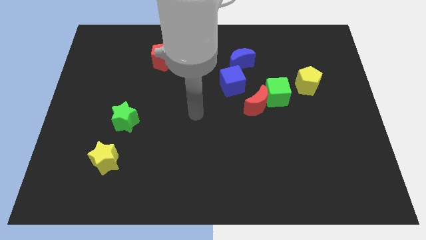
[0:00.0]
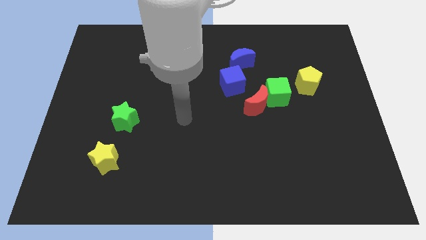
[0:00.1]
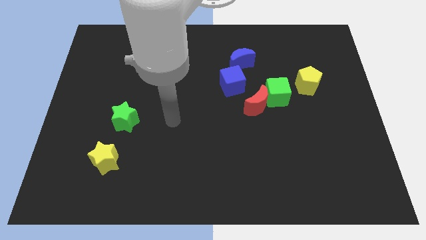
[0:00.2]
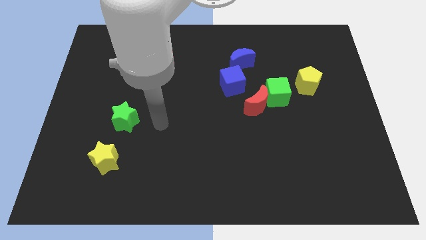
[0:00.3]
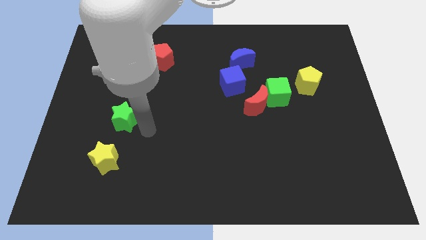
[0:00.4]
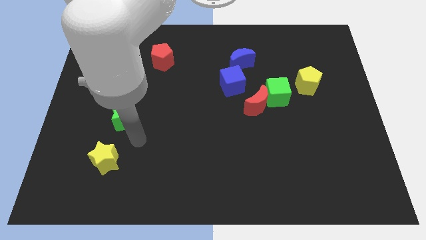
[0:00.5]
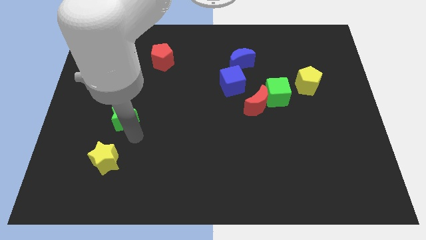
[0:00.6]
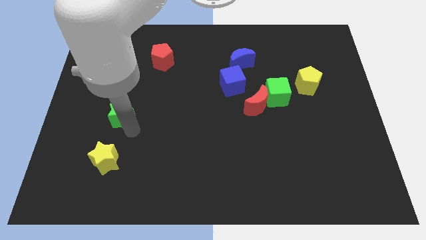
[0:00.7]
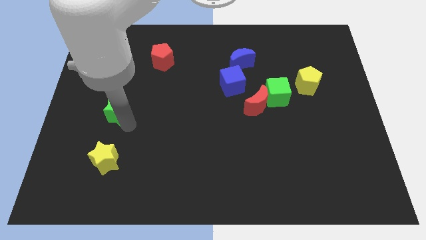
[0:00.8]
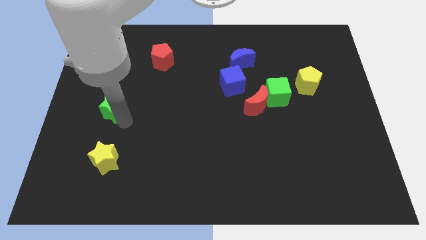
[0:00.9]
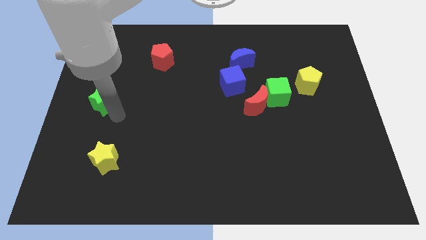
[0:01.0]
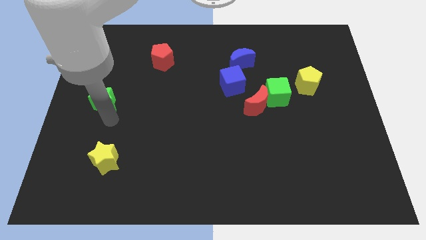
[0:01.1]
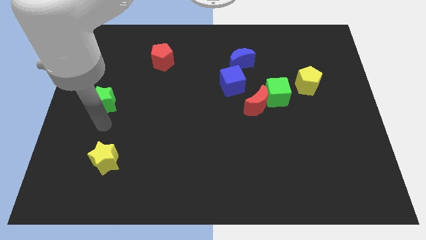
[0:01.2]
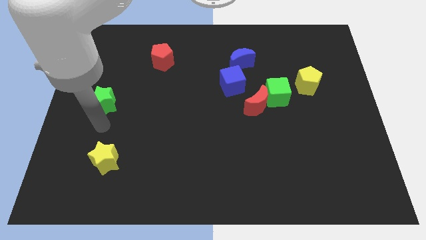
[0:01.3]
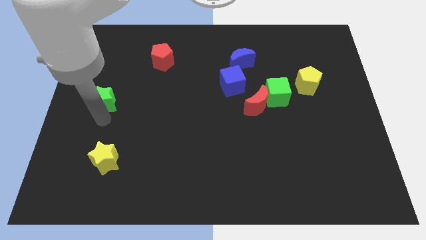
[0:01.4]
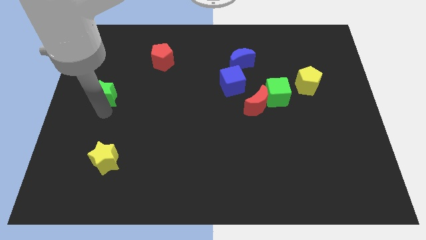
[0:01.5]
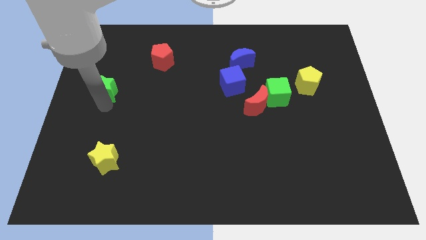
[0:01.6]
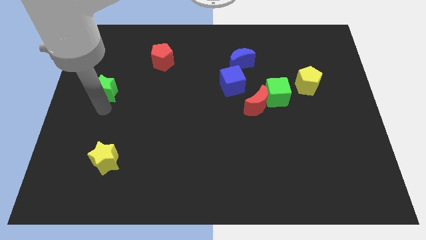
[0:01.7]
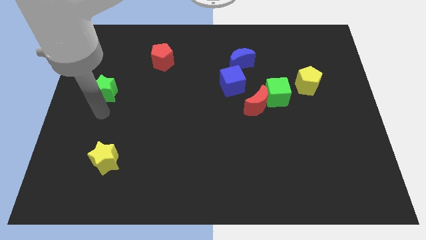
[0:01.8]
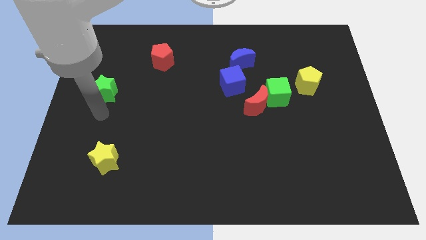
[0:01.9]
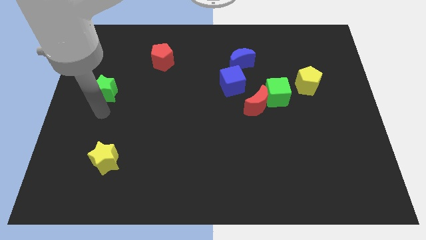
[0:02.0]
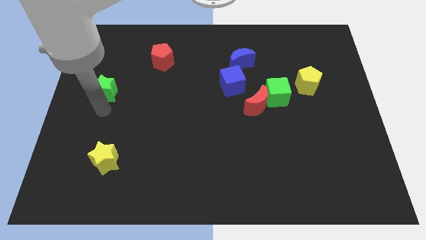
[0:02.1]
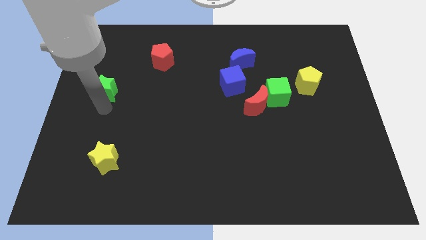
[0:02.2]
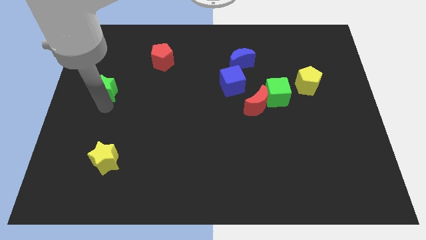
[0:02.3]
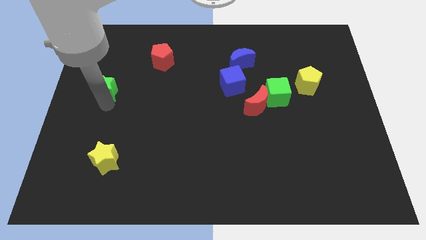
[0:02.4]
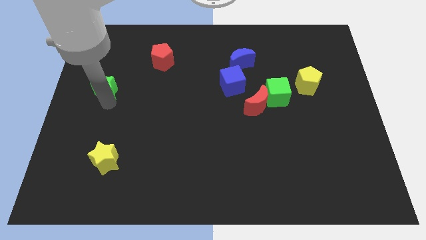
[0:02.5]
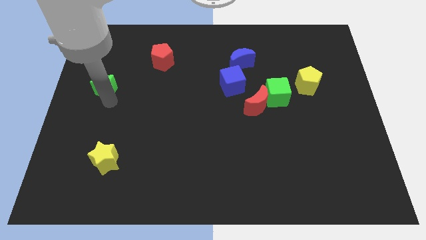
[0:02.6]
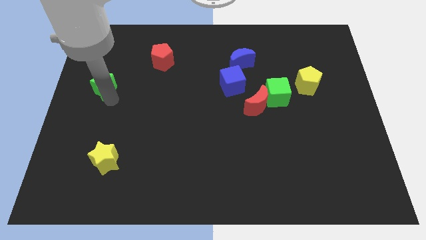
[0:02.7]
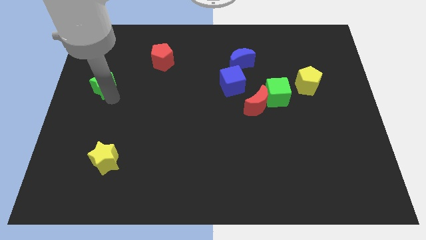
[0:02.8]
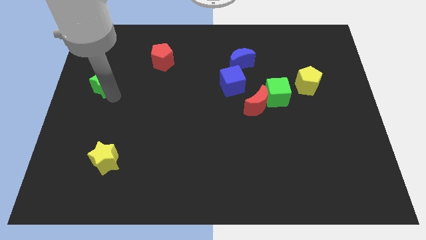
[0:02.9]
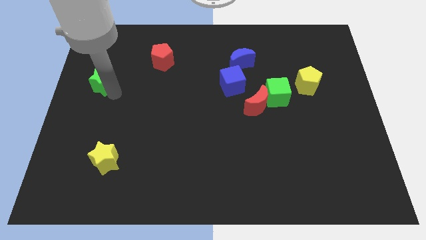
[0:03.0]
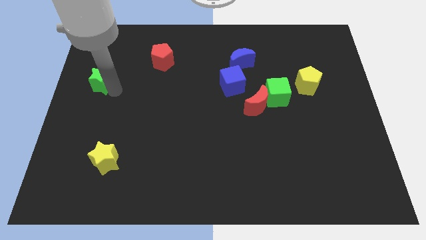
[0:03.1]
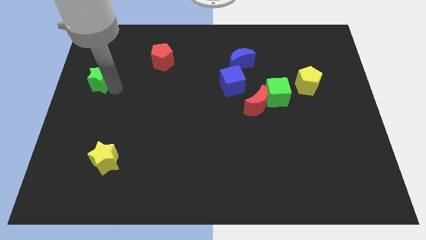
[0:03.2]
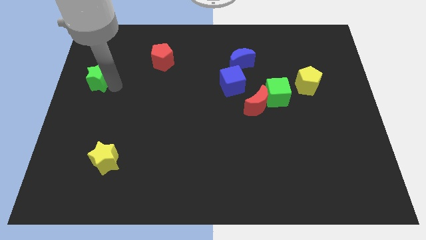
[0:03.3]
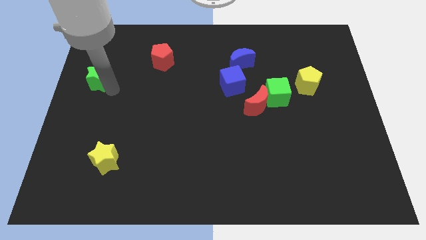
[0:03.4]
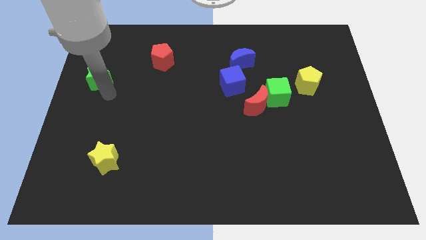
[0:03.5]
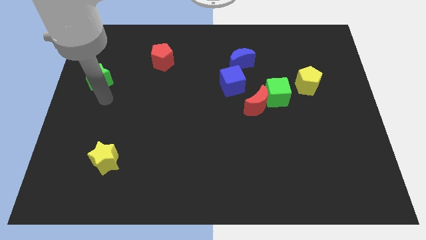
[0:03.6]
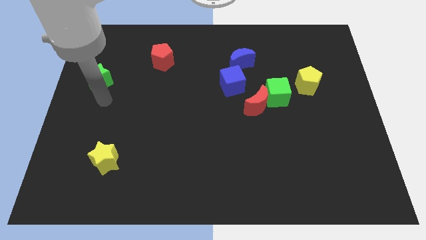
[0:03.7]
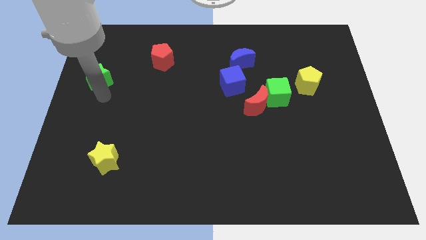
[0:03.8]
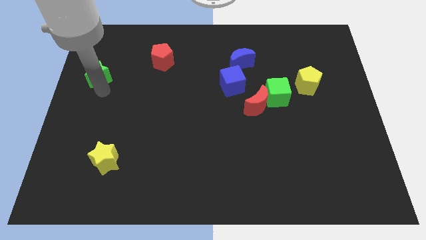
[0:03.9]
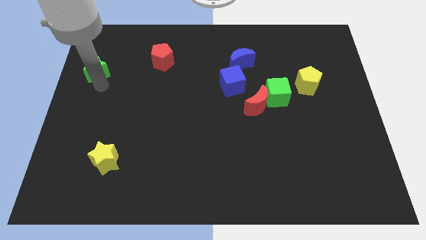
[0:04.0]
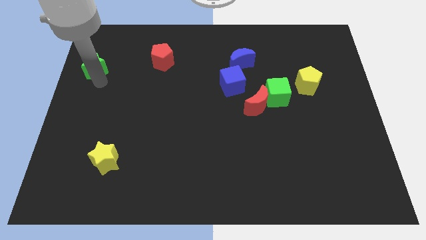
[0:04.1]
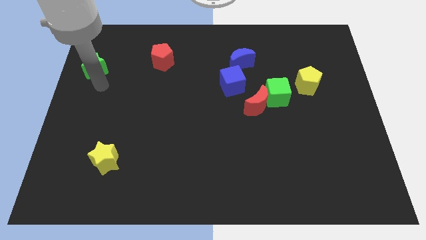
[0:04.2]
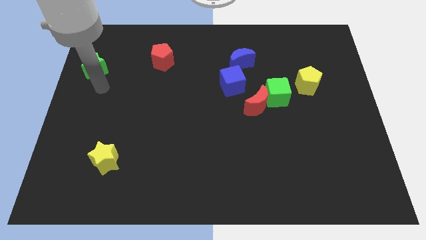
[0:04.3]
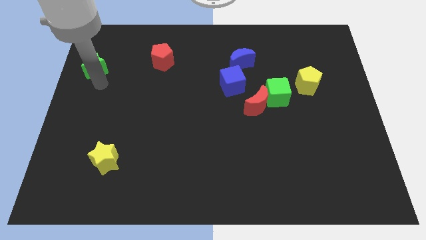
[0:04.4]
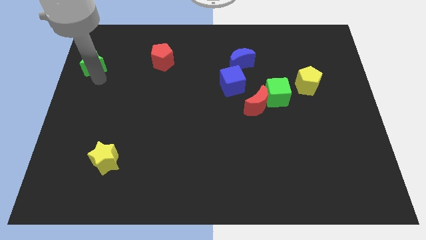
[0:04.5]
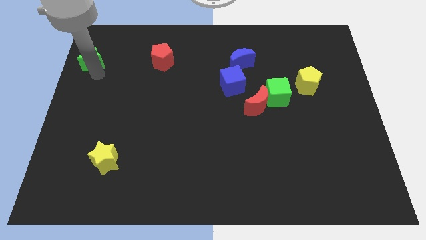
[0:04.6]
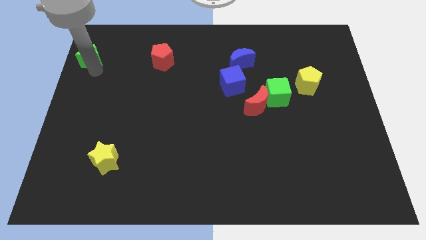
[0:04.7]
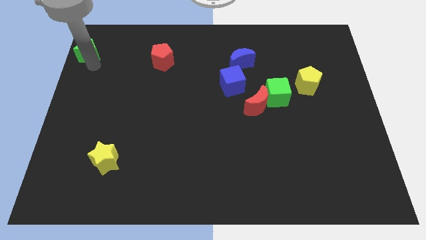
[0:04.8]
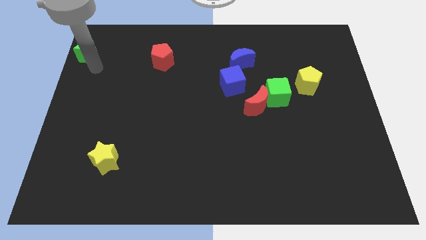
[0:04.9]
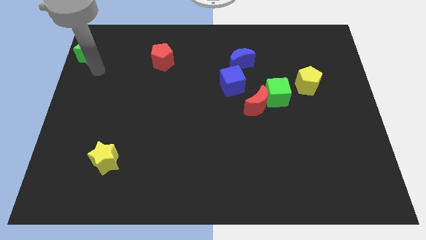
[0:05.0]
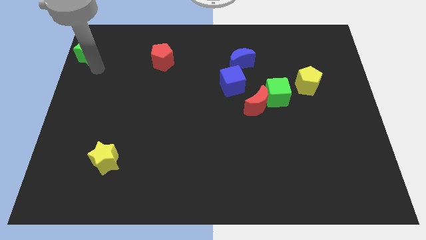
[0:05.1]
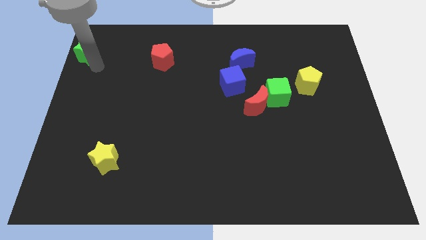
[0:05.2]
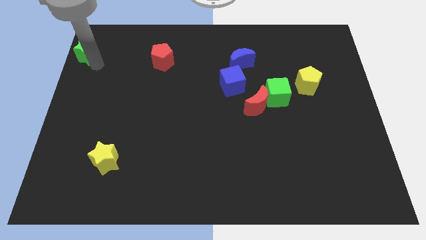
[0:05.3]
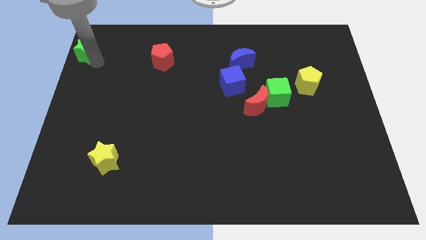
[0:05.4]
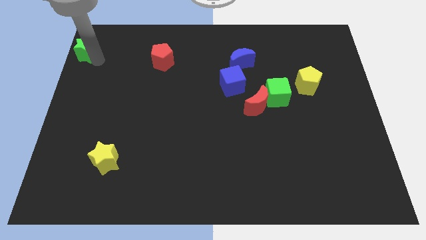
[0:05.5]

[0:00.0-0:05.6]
slide the green star to the upper left corner

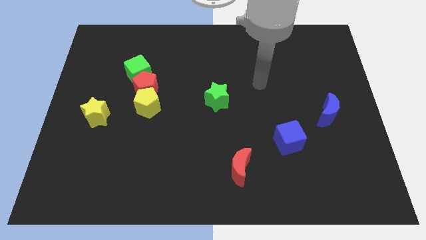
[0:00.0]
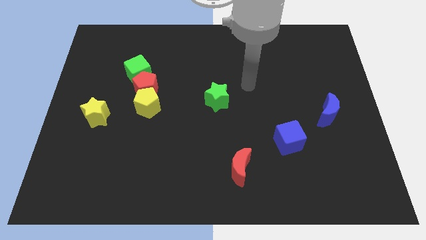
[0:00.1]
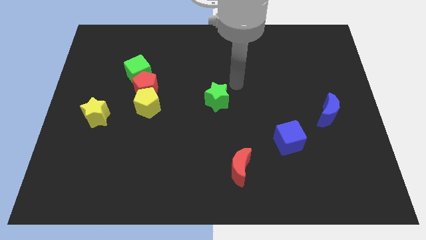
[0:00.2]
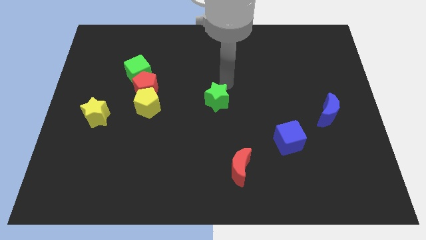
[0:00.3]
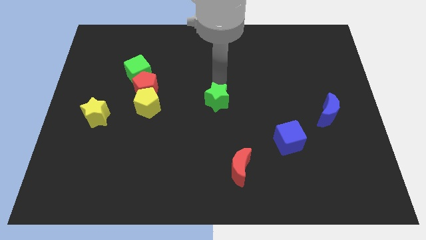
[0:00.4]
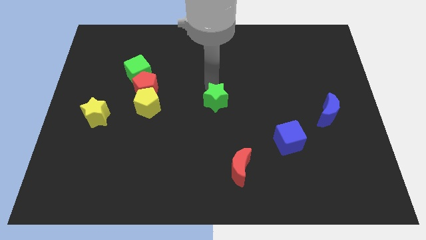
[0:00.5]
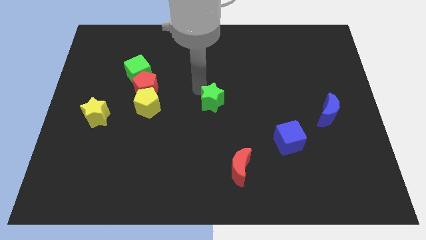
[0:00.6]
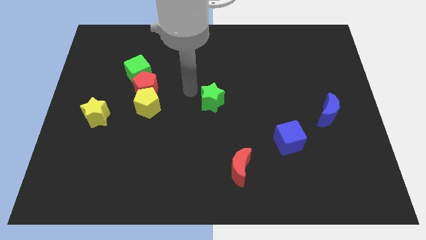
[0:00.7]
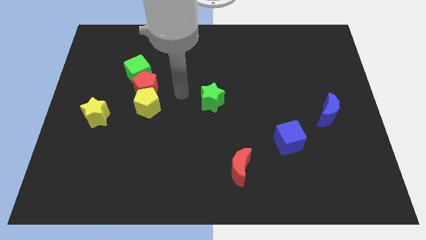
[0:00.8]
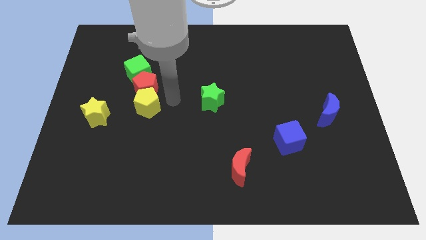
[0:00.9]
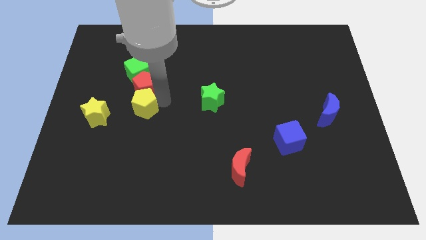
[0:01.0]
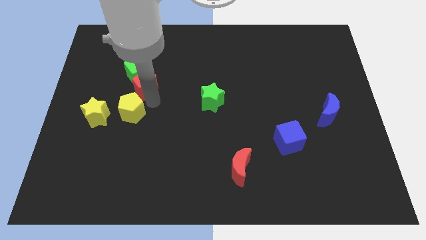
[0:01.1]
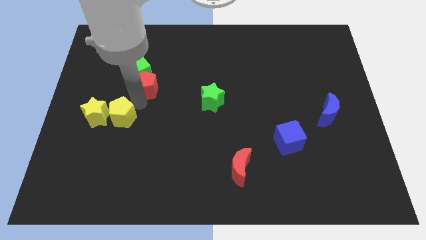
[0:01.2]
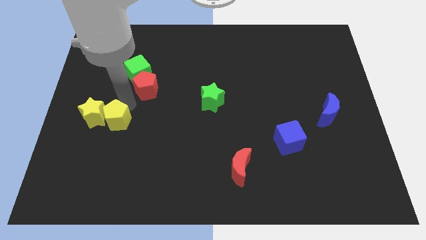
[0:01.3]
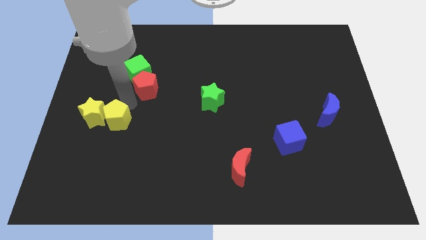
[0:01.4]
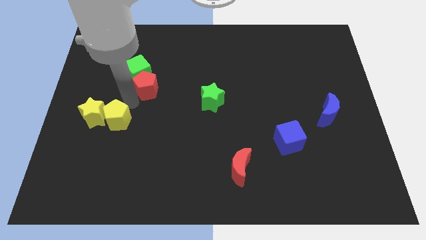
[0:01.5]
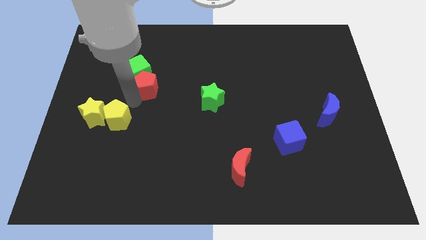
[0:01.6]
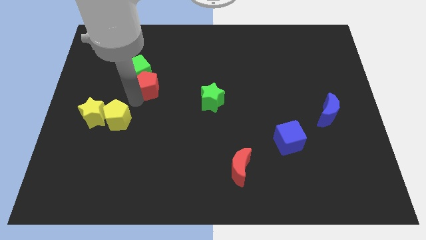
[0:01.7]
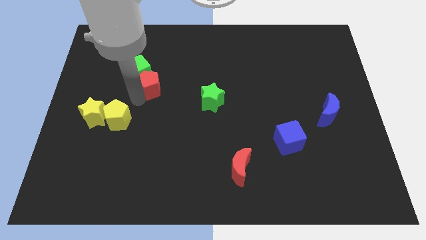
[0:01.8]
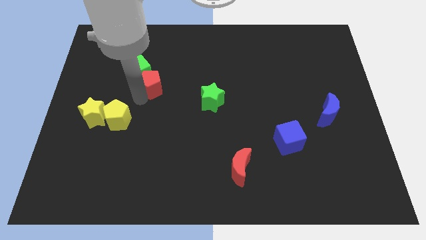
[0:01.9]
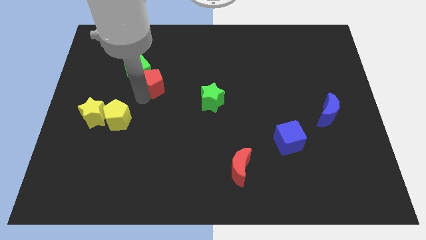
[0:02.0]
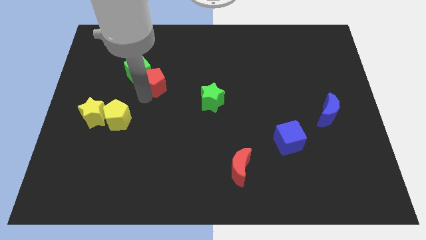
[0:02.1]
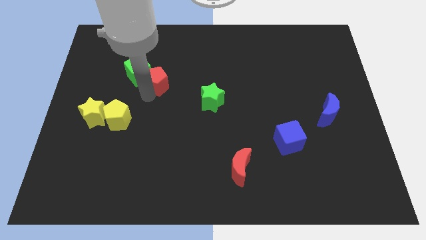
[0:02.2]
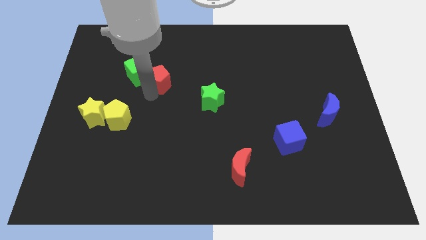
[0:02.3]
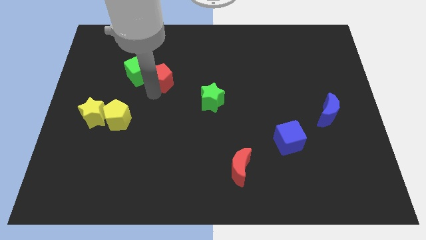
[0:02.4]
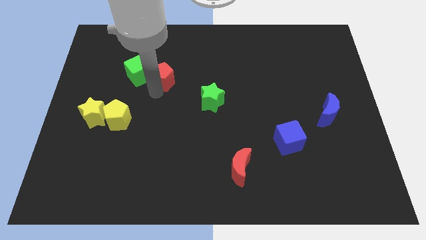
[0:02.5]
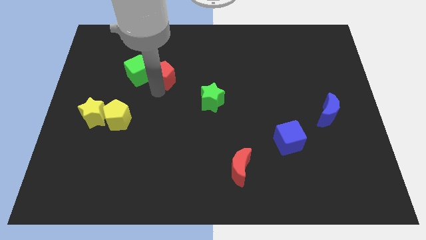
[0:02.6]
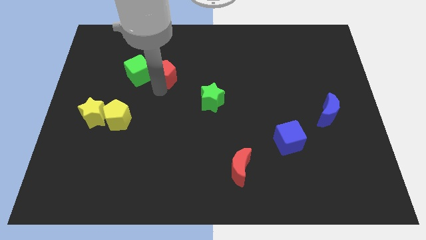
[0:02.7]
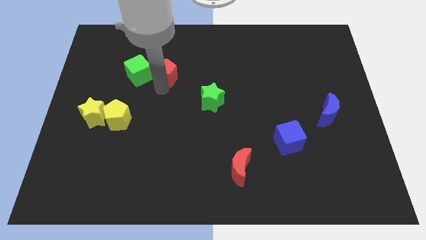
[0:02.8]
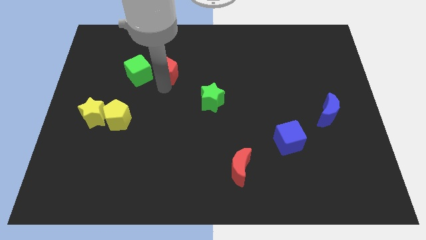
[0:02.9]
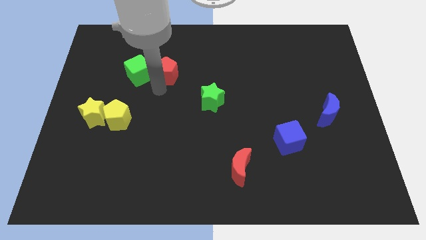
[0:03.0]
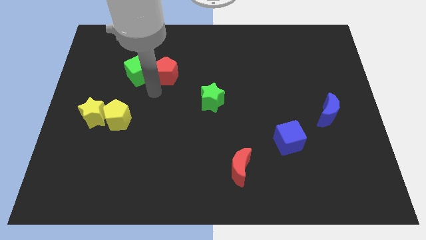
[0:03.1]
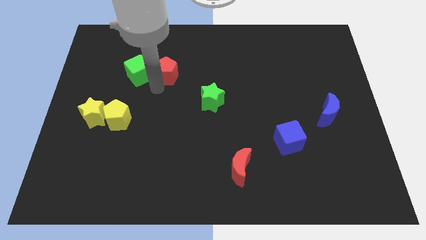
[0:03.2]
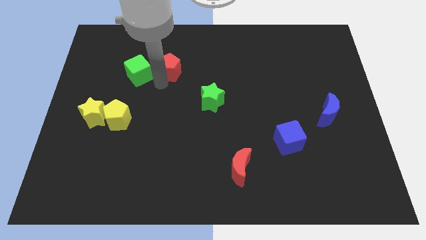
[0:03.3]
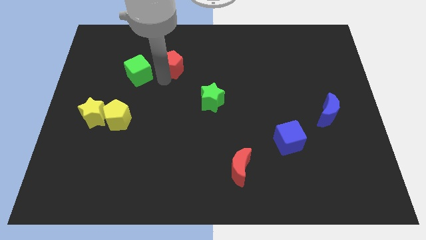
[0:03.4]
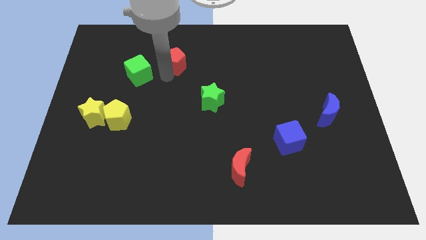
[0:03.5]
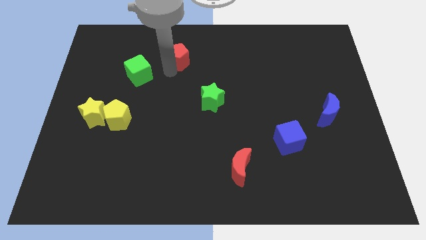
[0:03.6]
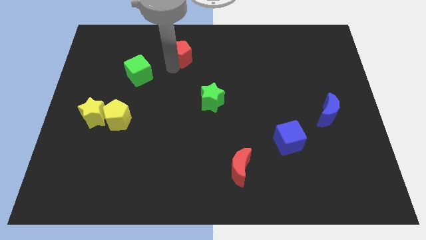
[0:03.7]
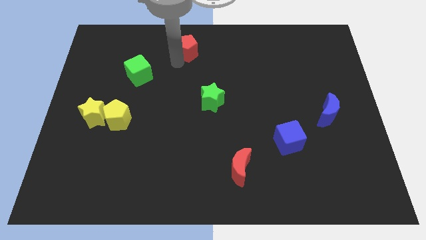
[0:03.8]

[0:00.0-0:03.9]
push the red pentagon to the top
